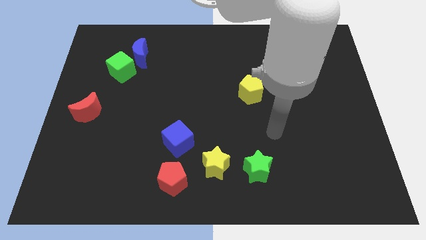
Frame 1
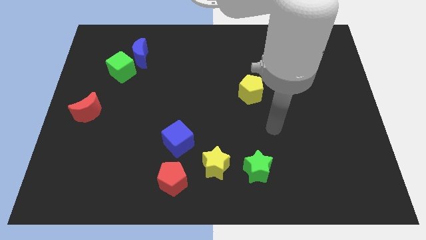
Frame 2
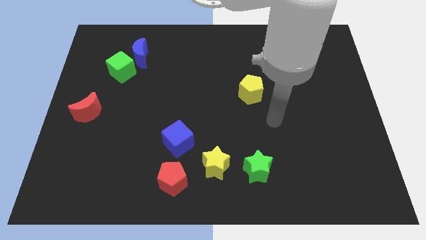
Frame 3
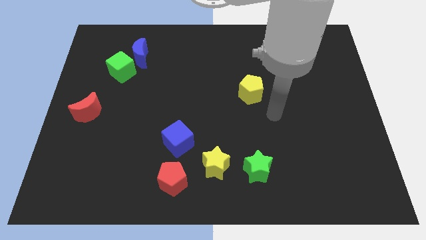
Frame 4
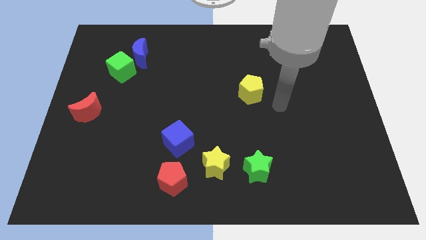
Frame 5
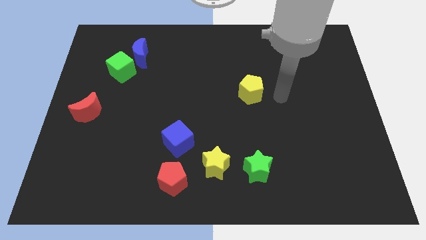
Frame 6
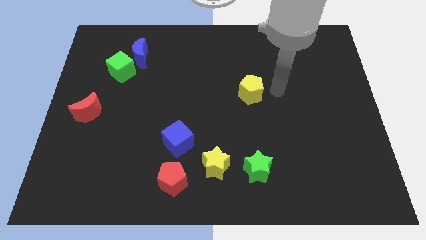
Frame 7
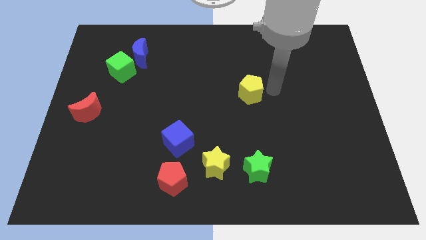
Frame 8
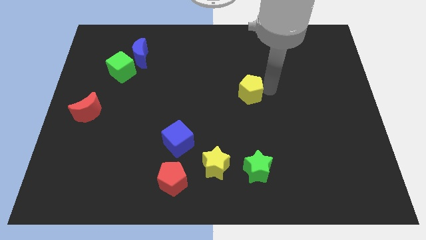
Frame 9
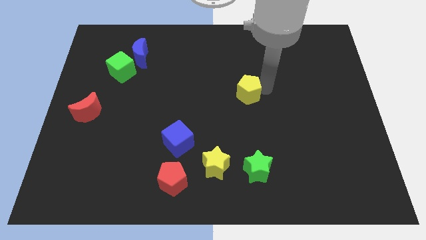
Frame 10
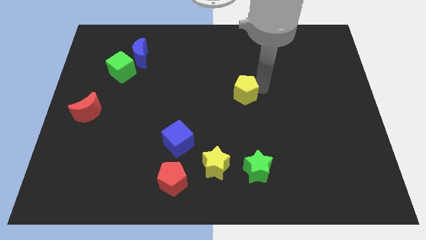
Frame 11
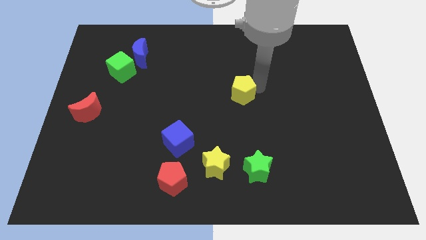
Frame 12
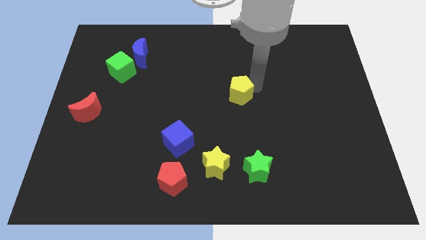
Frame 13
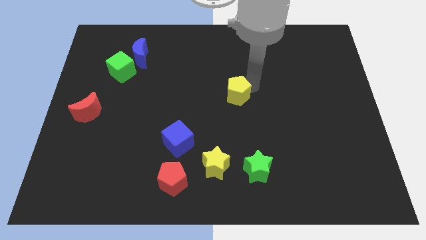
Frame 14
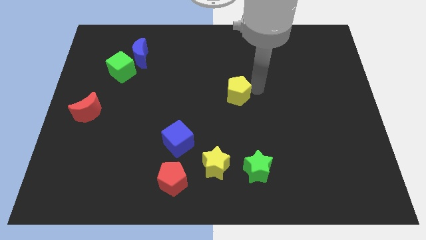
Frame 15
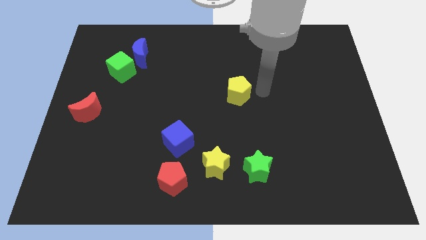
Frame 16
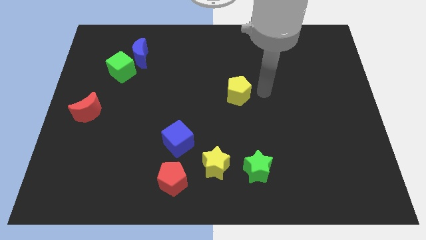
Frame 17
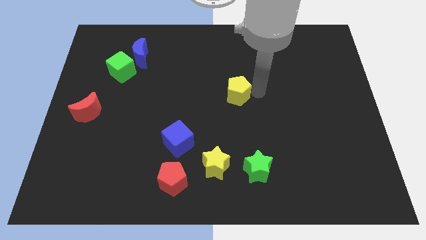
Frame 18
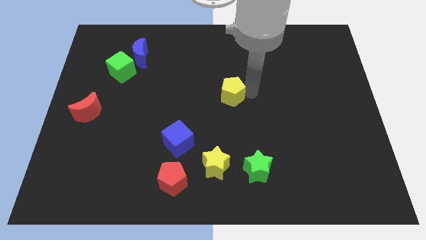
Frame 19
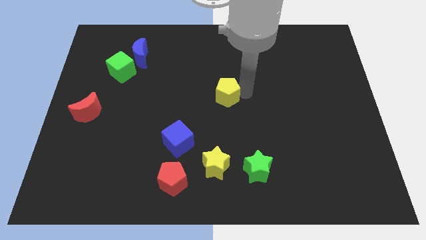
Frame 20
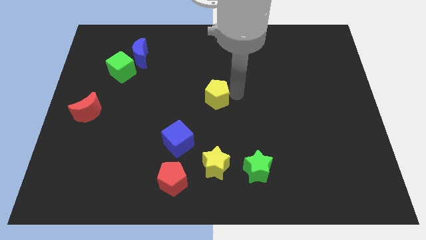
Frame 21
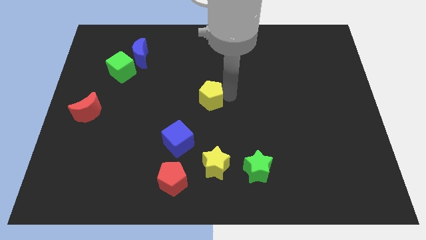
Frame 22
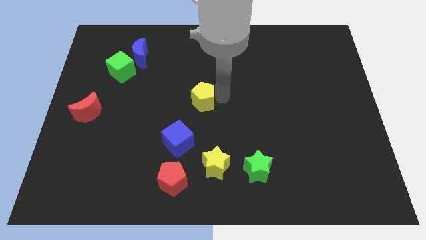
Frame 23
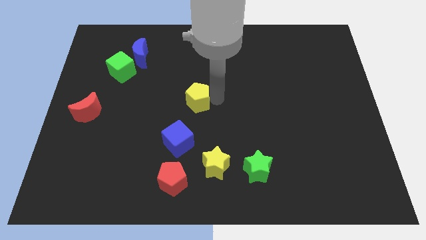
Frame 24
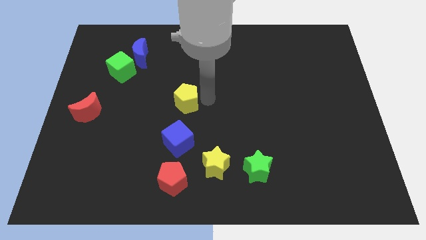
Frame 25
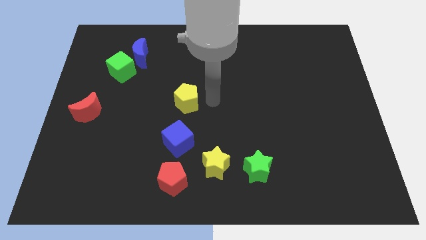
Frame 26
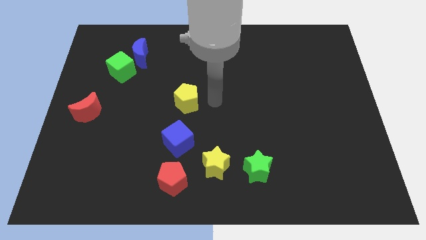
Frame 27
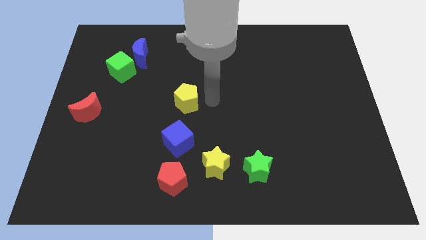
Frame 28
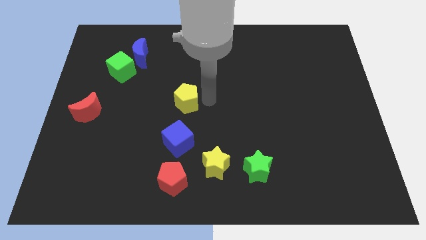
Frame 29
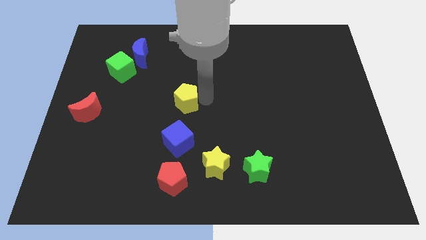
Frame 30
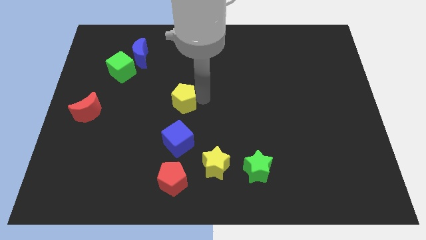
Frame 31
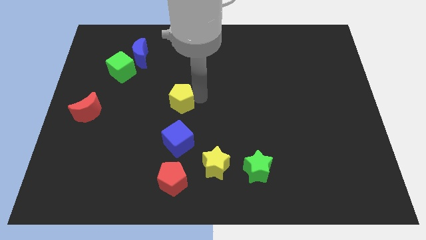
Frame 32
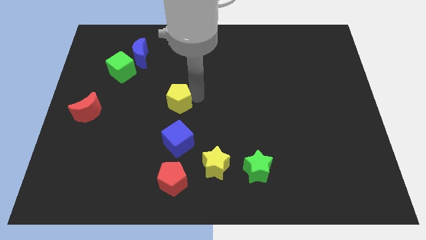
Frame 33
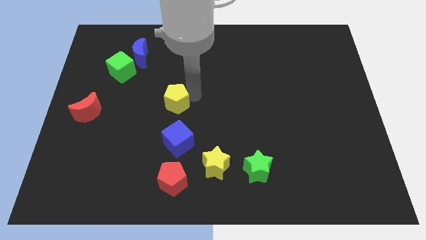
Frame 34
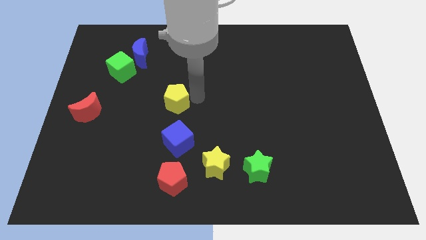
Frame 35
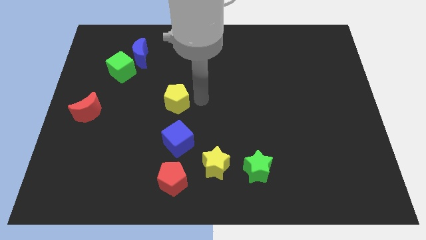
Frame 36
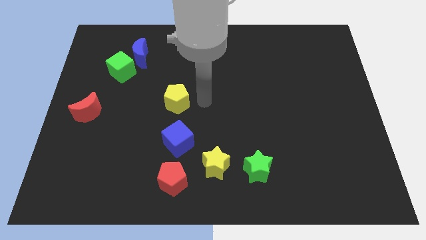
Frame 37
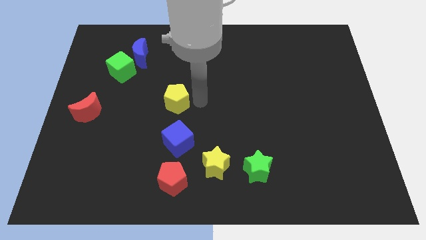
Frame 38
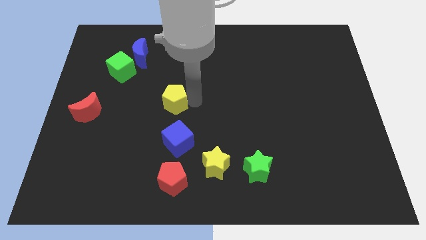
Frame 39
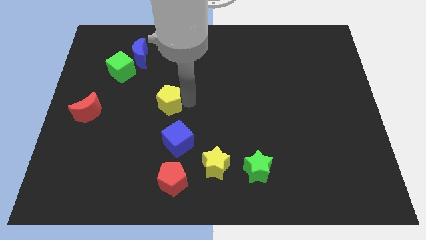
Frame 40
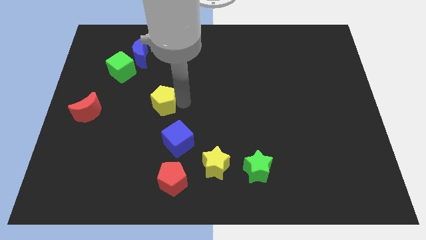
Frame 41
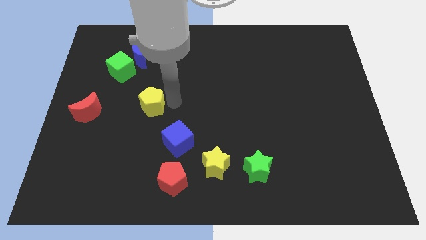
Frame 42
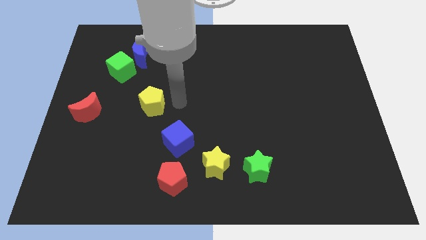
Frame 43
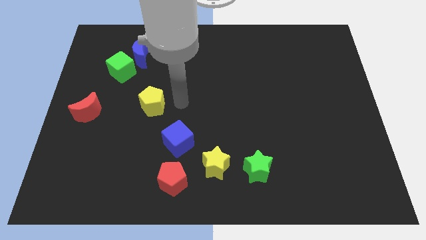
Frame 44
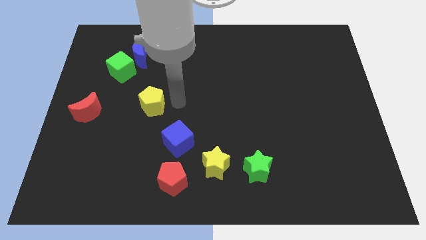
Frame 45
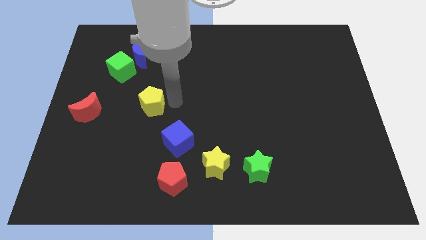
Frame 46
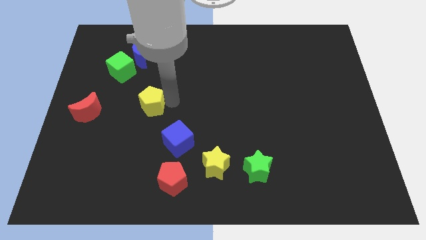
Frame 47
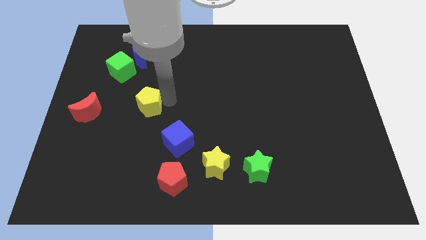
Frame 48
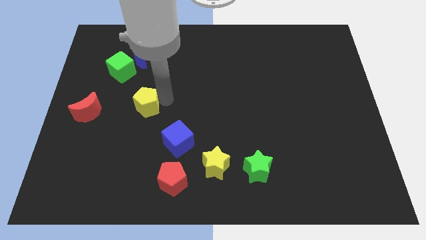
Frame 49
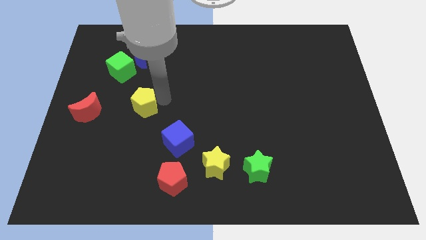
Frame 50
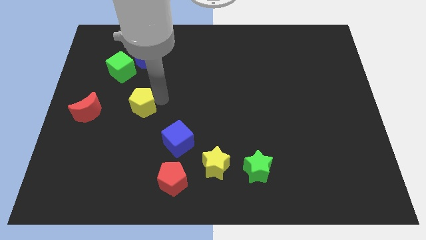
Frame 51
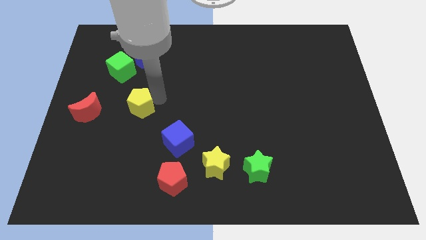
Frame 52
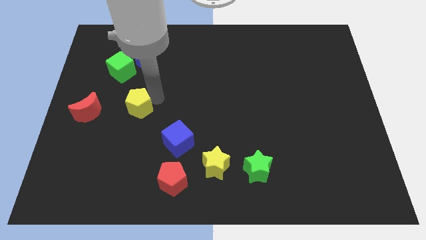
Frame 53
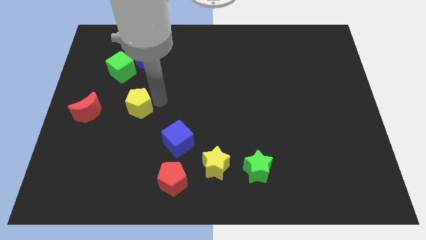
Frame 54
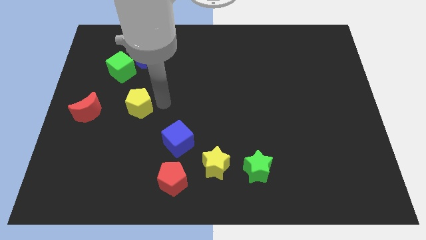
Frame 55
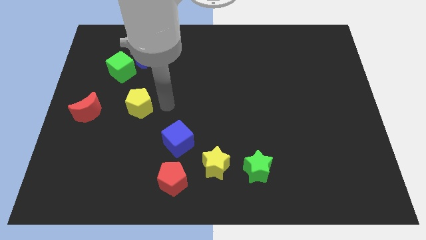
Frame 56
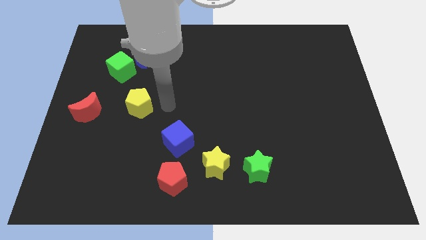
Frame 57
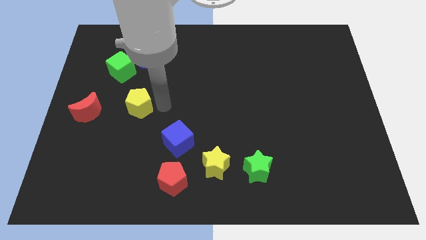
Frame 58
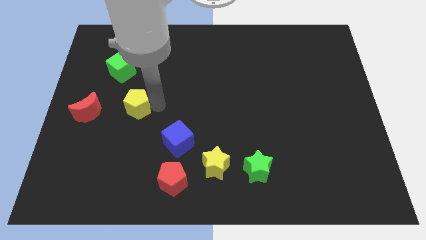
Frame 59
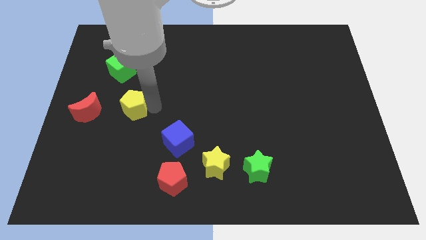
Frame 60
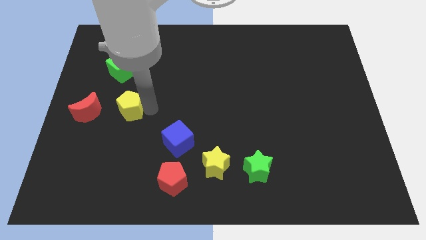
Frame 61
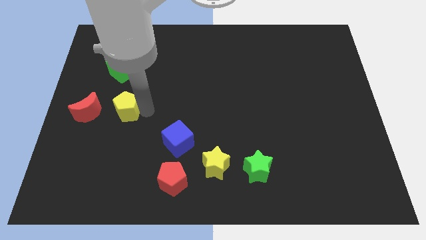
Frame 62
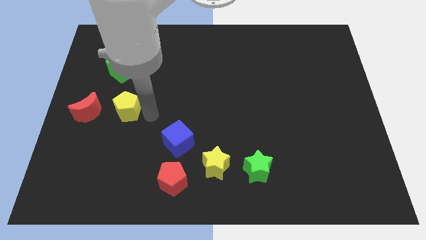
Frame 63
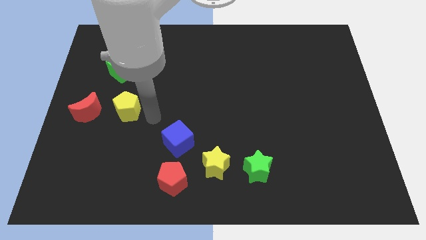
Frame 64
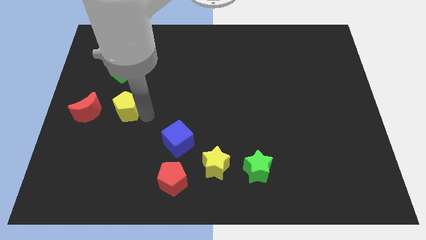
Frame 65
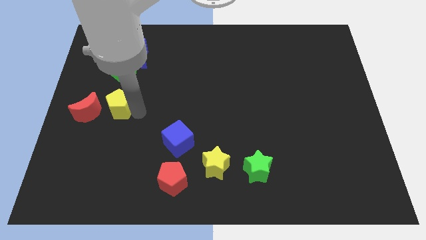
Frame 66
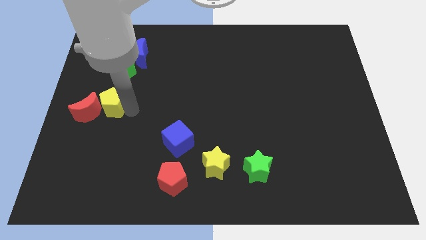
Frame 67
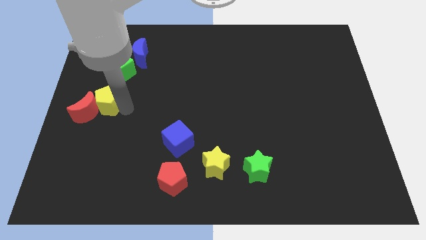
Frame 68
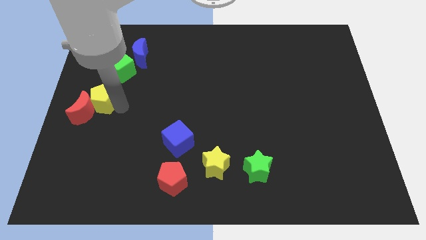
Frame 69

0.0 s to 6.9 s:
slide the yellow pentagon to the center left
